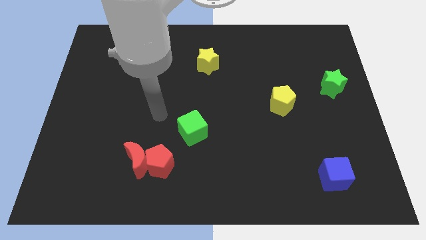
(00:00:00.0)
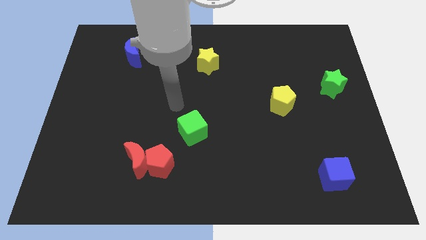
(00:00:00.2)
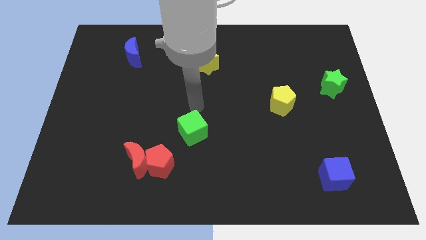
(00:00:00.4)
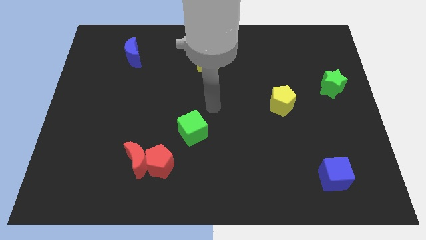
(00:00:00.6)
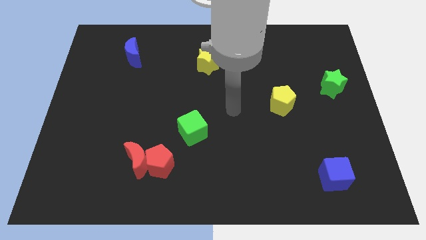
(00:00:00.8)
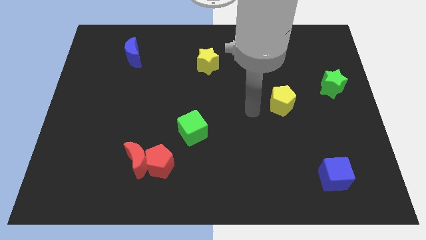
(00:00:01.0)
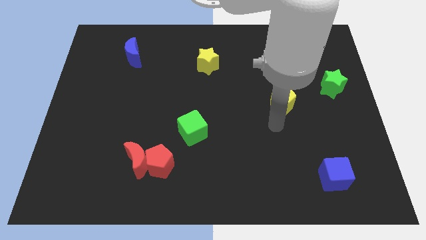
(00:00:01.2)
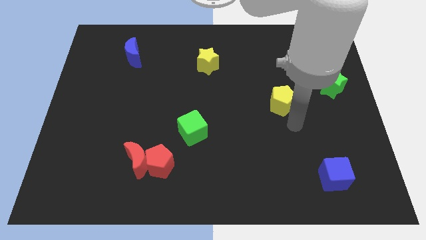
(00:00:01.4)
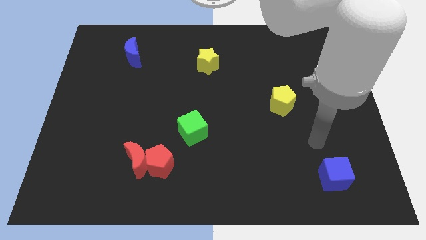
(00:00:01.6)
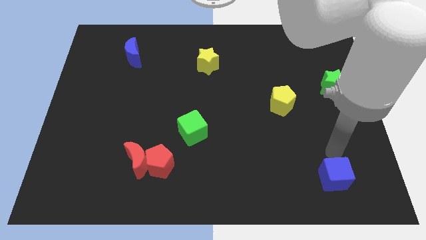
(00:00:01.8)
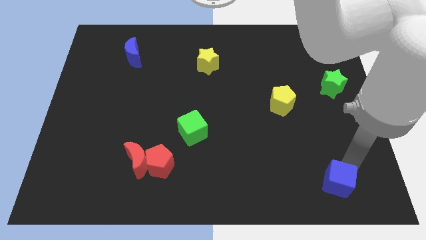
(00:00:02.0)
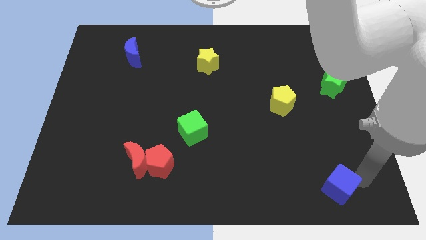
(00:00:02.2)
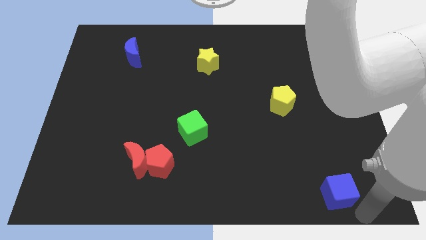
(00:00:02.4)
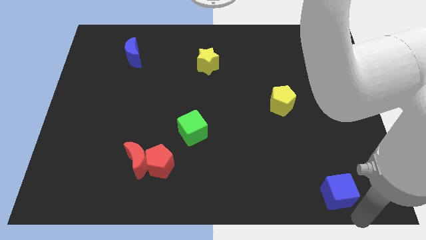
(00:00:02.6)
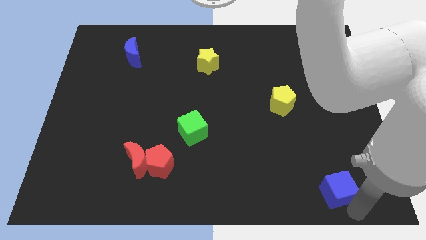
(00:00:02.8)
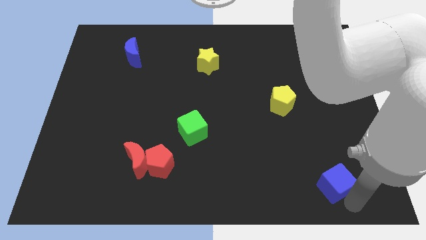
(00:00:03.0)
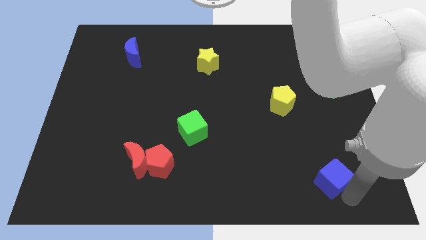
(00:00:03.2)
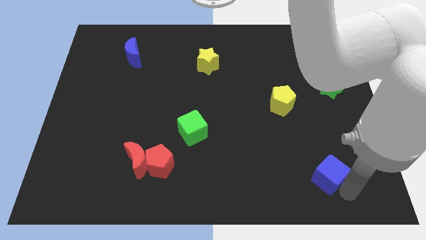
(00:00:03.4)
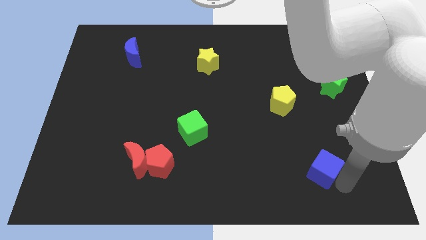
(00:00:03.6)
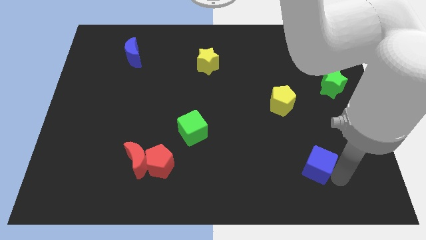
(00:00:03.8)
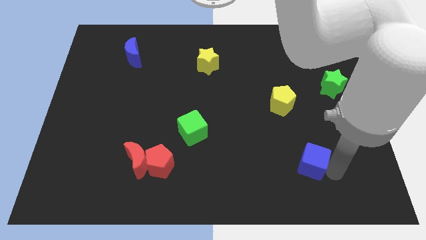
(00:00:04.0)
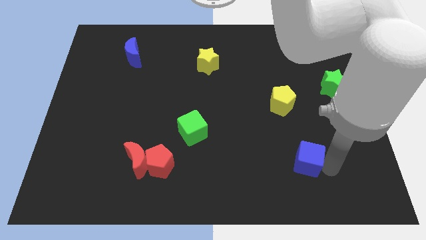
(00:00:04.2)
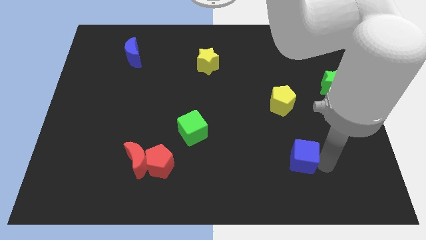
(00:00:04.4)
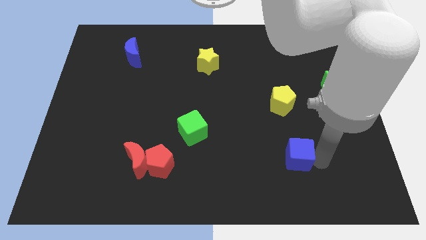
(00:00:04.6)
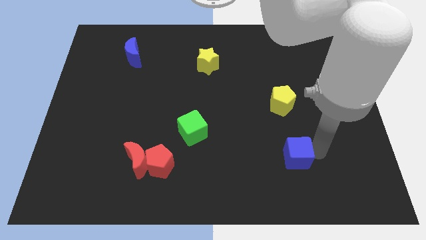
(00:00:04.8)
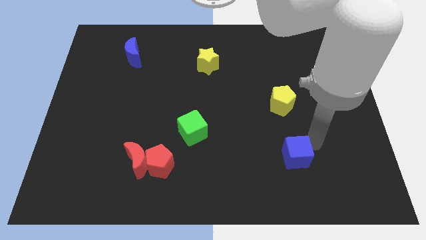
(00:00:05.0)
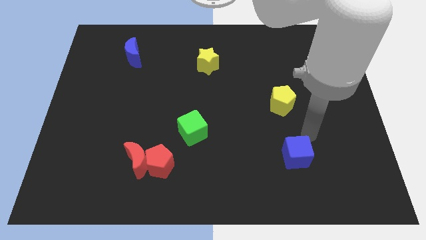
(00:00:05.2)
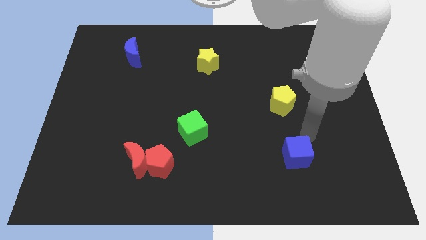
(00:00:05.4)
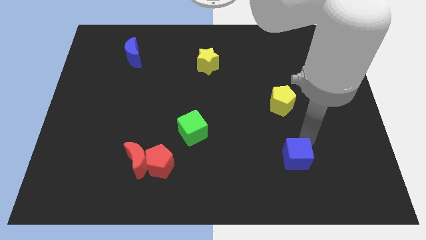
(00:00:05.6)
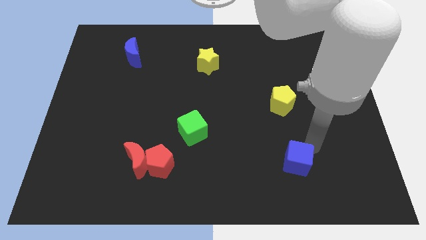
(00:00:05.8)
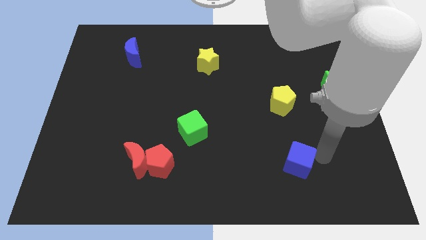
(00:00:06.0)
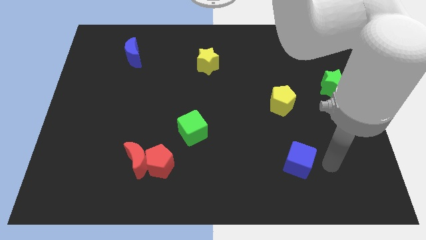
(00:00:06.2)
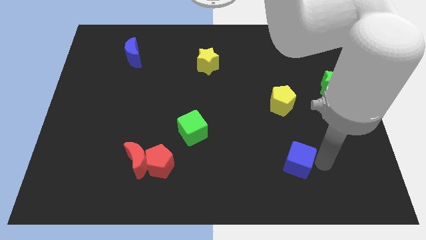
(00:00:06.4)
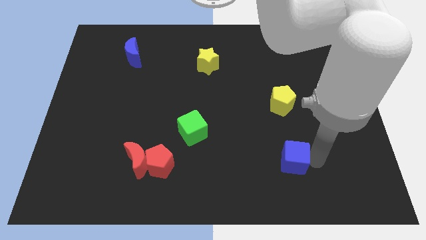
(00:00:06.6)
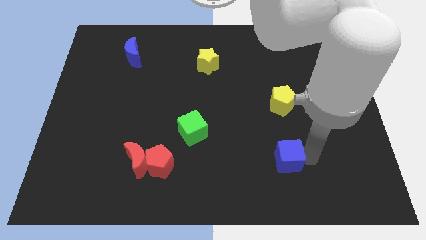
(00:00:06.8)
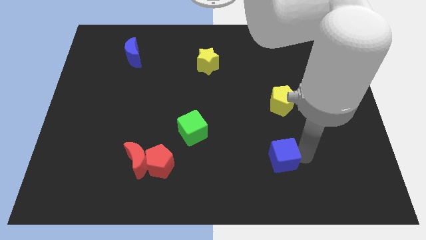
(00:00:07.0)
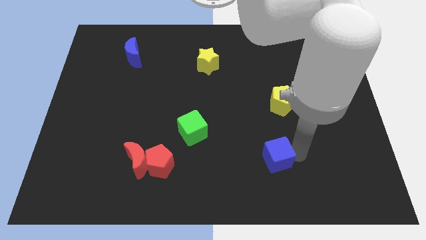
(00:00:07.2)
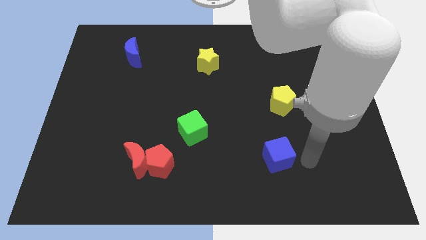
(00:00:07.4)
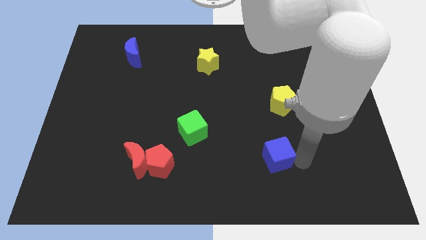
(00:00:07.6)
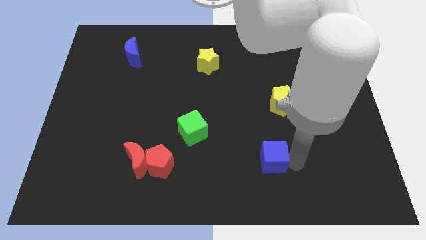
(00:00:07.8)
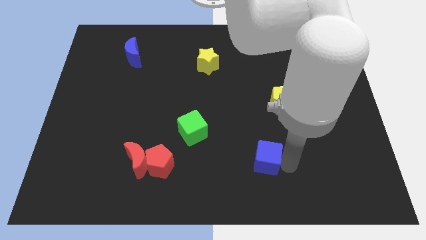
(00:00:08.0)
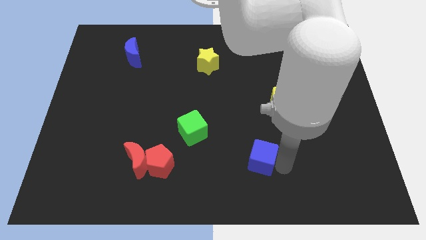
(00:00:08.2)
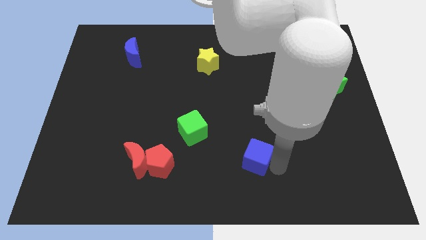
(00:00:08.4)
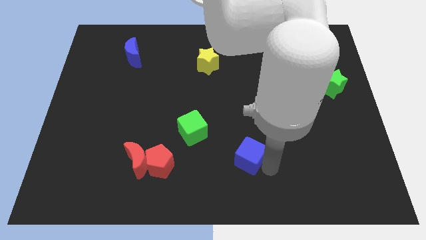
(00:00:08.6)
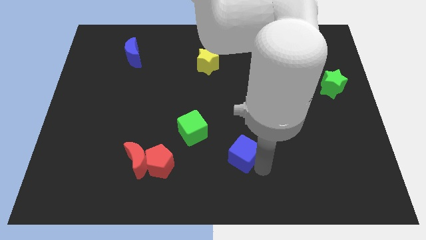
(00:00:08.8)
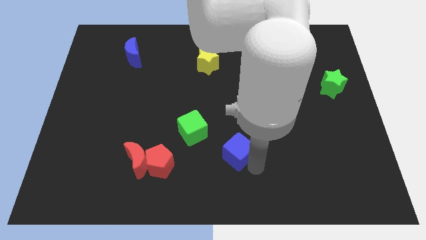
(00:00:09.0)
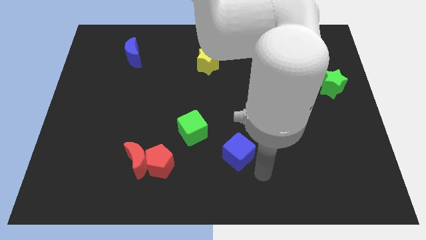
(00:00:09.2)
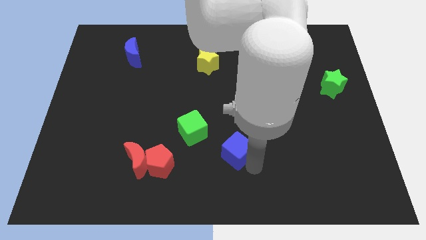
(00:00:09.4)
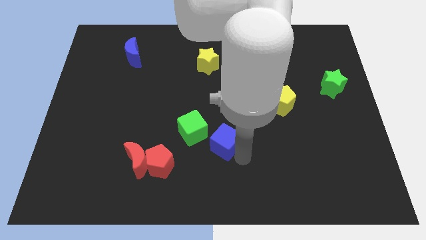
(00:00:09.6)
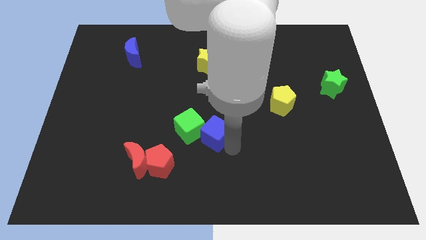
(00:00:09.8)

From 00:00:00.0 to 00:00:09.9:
push the blue cube towards the green cube

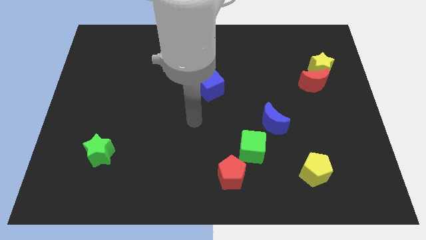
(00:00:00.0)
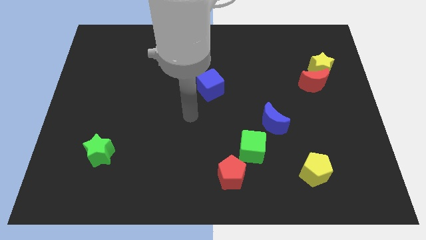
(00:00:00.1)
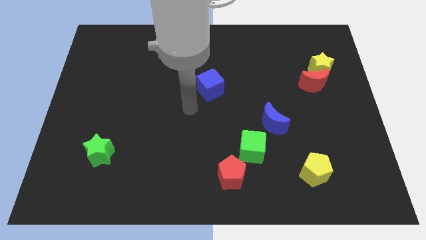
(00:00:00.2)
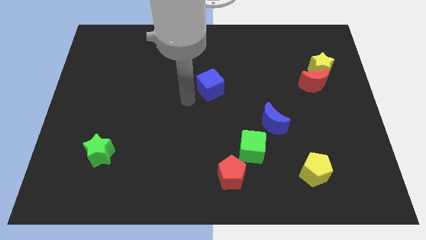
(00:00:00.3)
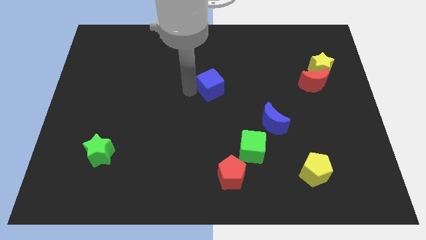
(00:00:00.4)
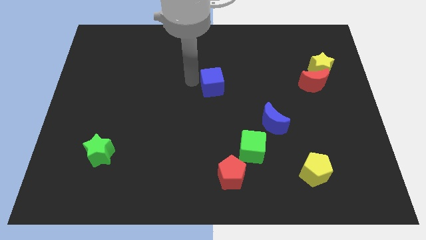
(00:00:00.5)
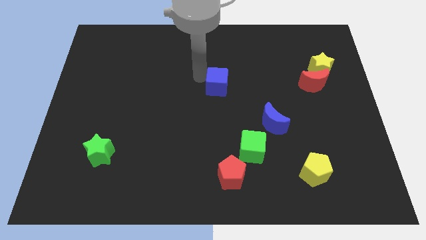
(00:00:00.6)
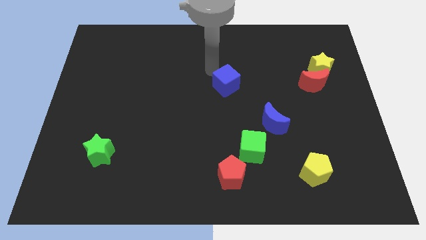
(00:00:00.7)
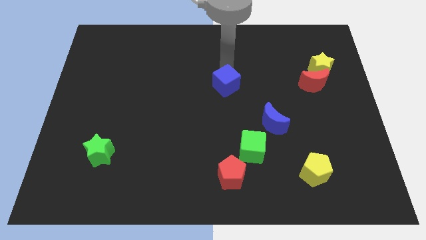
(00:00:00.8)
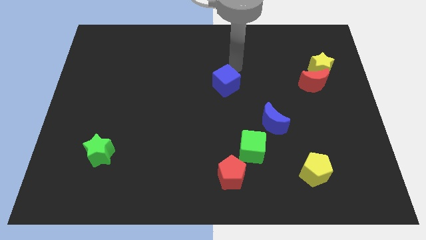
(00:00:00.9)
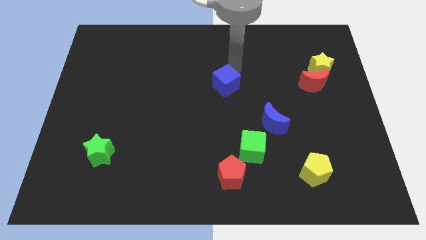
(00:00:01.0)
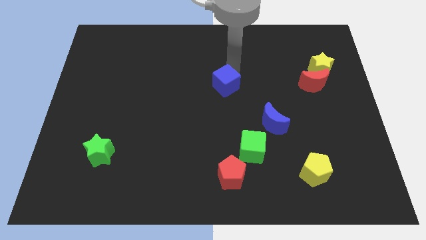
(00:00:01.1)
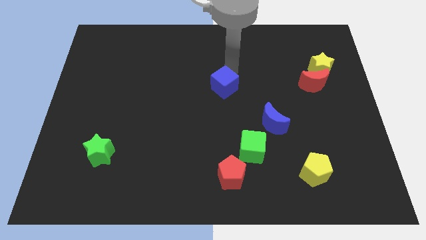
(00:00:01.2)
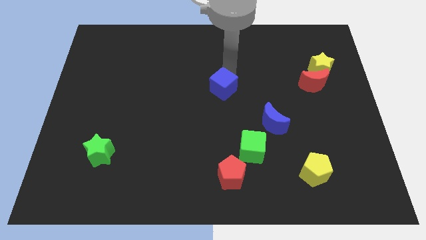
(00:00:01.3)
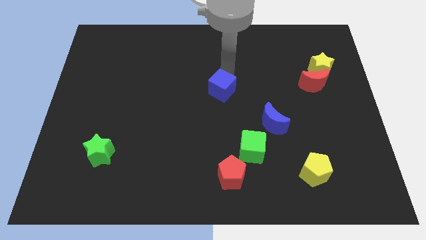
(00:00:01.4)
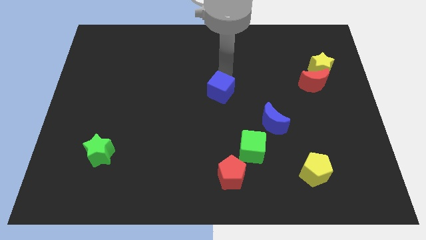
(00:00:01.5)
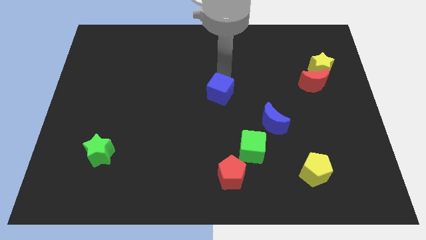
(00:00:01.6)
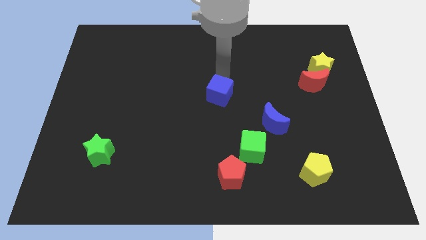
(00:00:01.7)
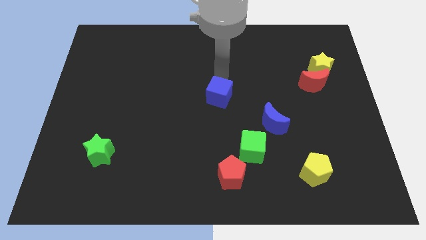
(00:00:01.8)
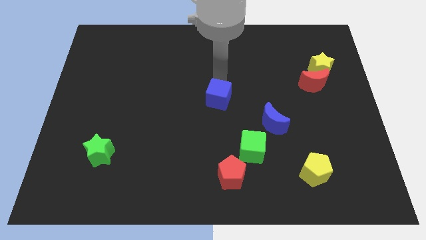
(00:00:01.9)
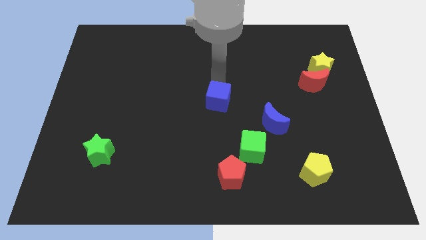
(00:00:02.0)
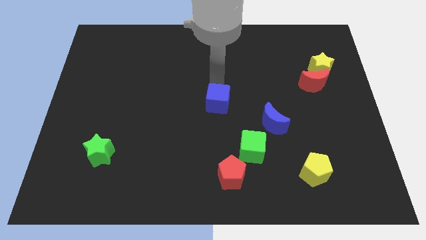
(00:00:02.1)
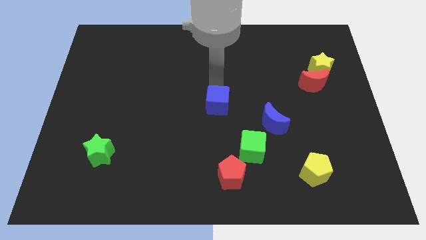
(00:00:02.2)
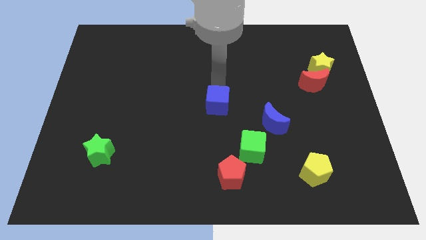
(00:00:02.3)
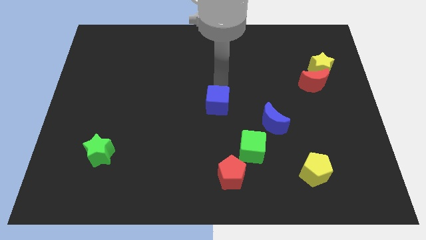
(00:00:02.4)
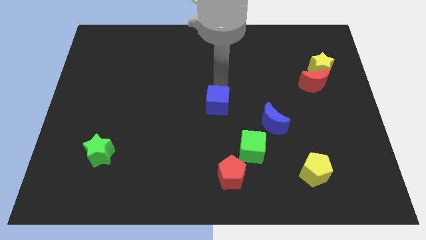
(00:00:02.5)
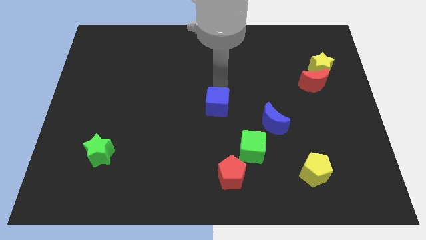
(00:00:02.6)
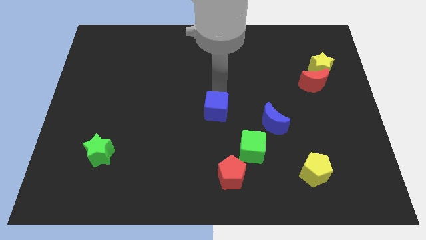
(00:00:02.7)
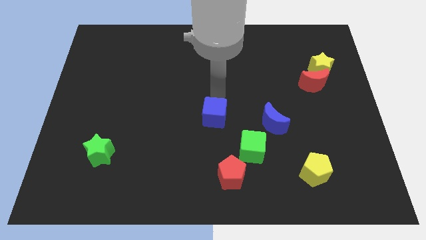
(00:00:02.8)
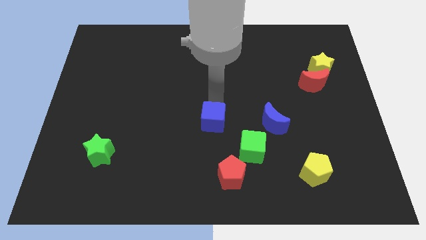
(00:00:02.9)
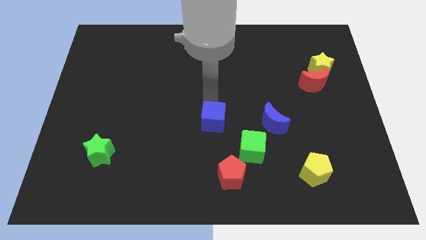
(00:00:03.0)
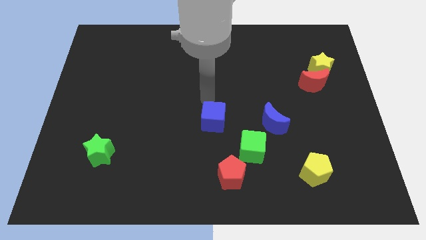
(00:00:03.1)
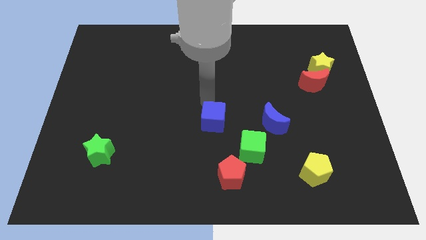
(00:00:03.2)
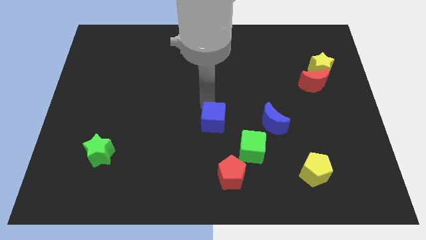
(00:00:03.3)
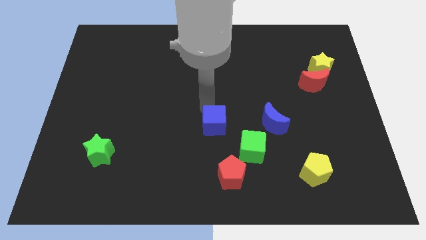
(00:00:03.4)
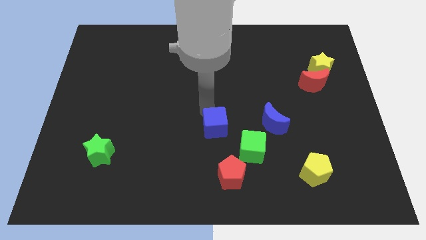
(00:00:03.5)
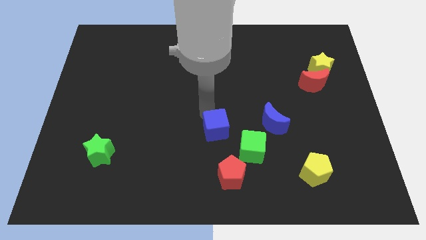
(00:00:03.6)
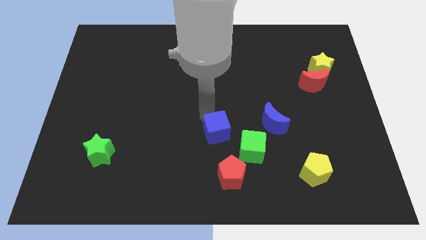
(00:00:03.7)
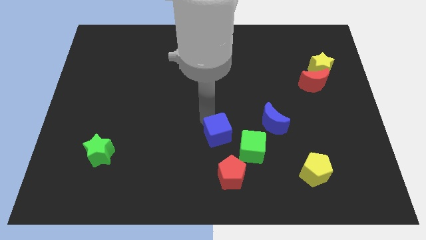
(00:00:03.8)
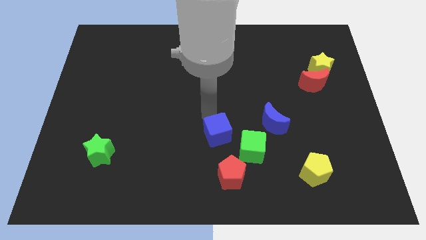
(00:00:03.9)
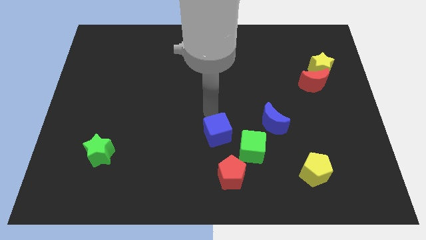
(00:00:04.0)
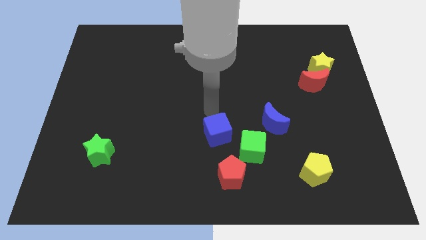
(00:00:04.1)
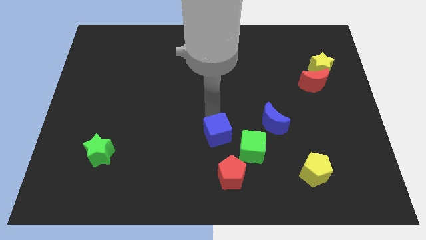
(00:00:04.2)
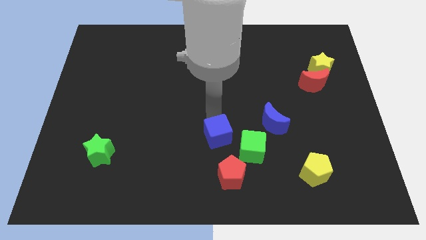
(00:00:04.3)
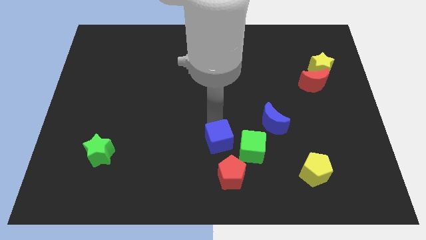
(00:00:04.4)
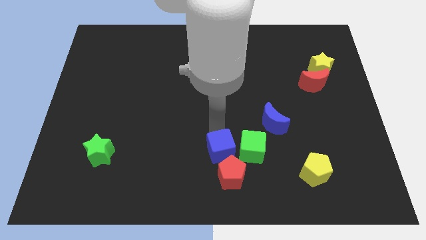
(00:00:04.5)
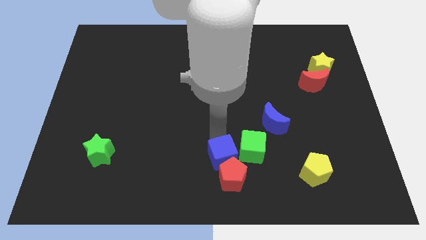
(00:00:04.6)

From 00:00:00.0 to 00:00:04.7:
move the blue cube to the red pentagon
